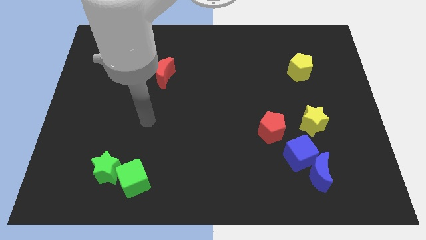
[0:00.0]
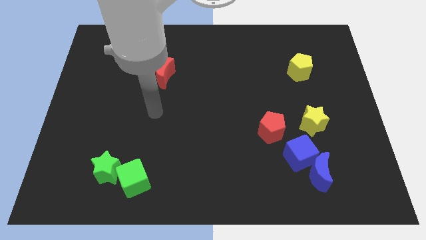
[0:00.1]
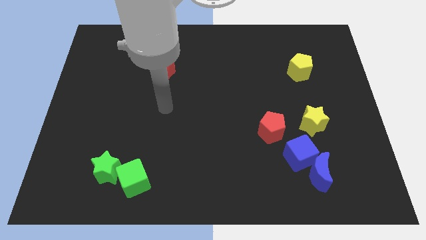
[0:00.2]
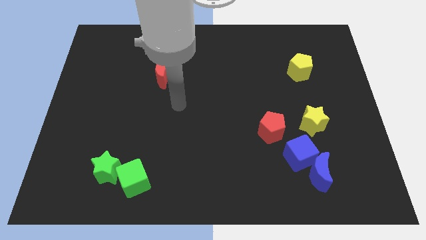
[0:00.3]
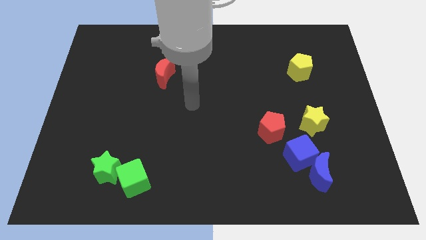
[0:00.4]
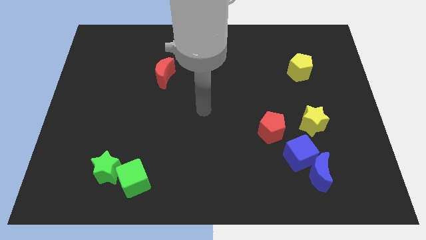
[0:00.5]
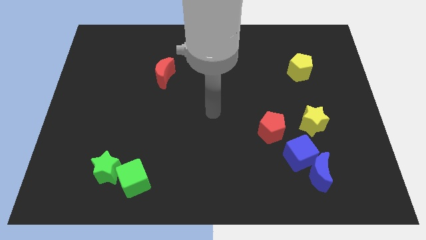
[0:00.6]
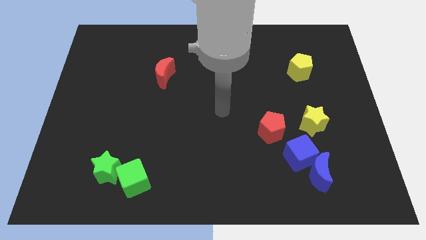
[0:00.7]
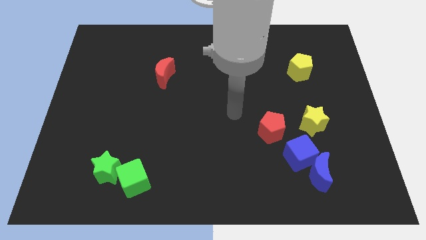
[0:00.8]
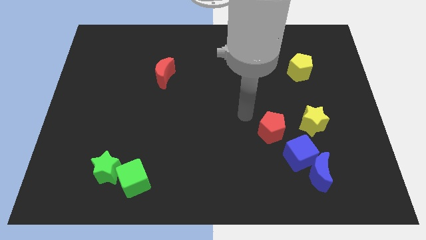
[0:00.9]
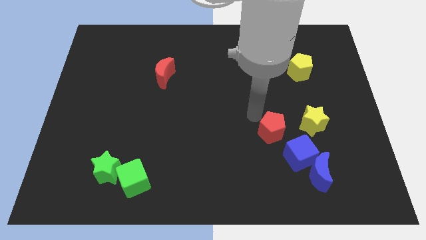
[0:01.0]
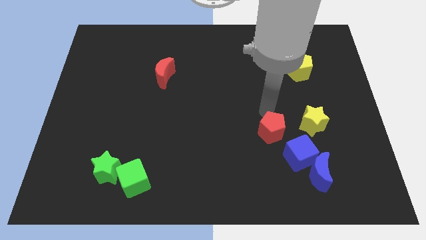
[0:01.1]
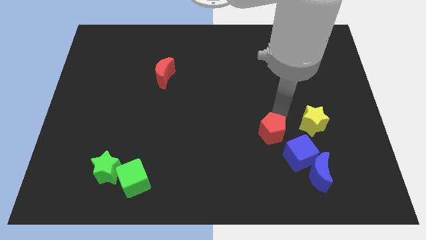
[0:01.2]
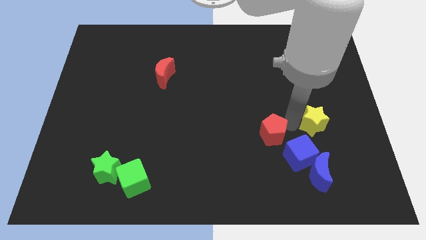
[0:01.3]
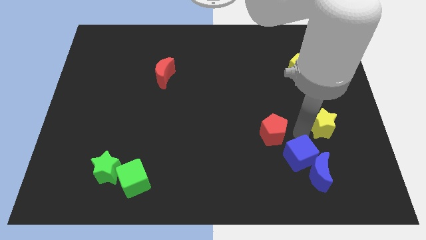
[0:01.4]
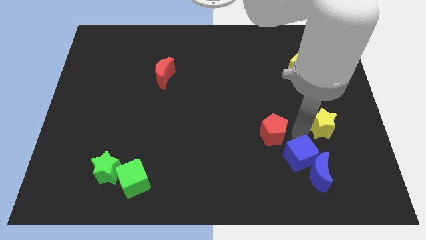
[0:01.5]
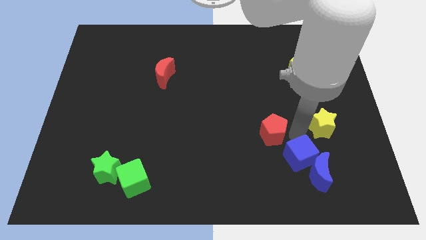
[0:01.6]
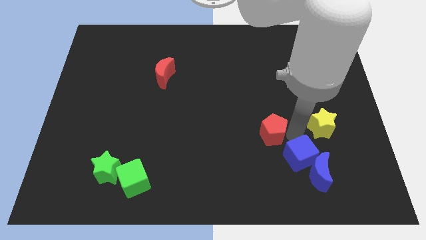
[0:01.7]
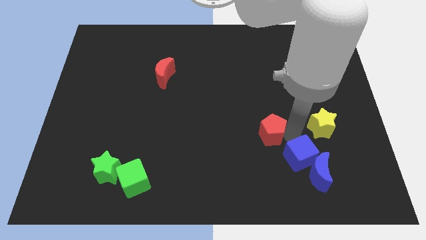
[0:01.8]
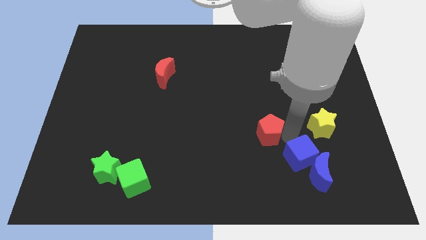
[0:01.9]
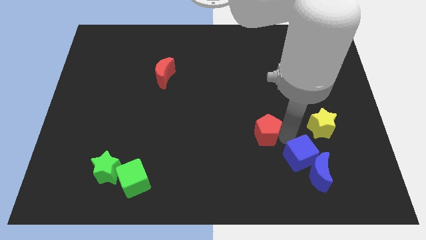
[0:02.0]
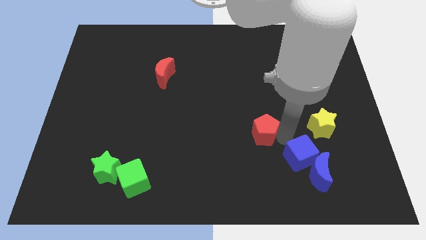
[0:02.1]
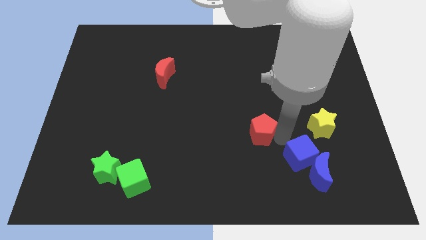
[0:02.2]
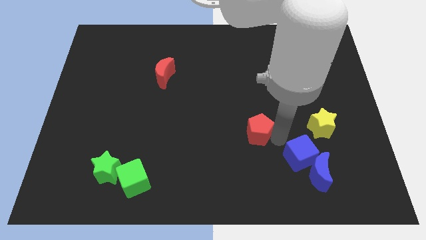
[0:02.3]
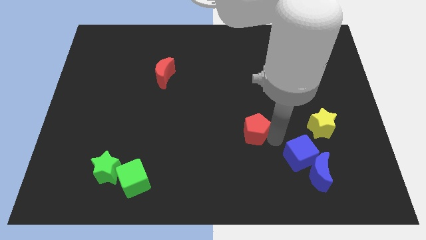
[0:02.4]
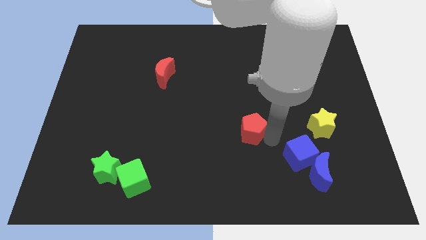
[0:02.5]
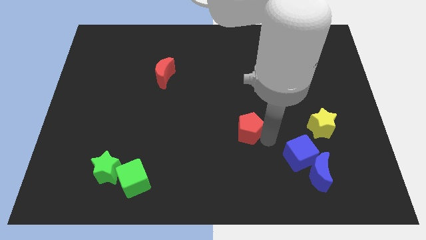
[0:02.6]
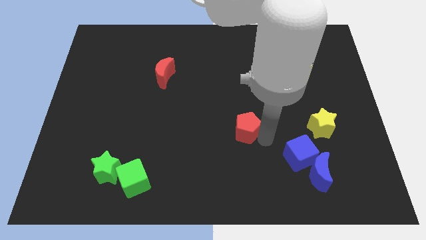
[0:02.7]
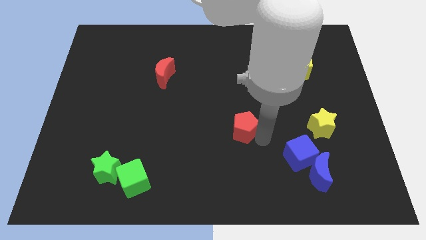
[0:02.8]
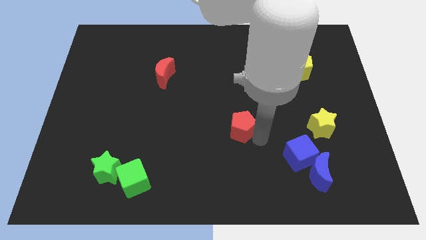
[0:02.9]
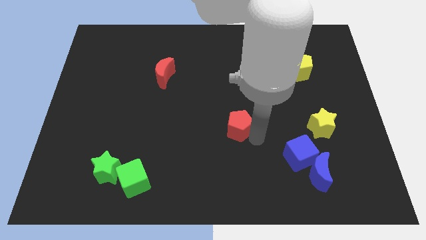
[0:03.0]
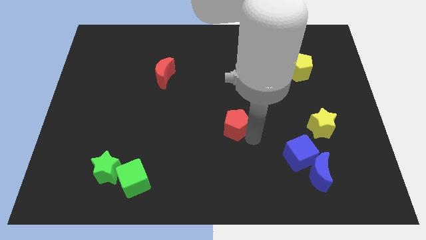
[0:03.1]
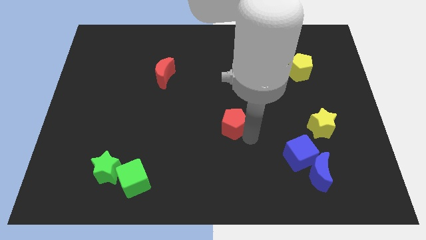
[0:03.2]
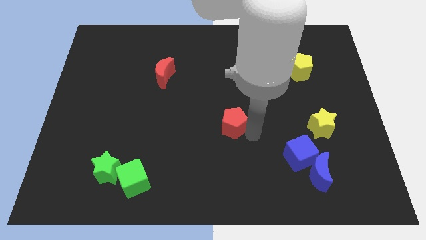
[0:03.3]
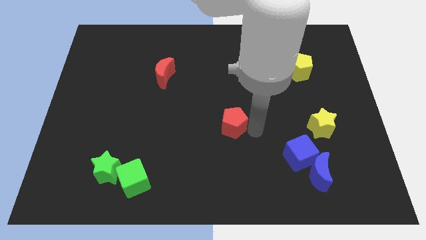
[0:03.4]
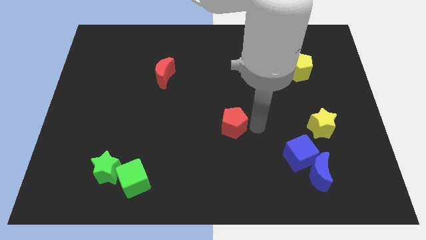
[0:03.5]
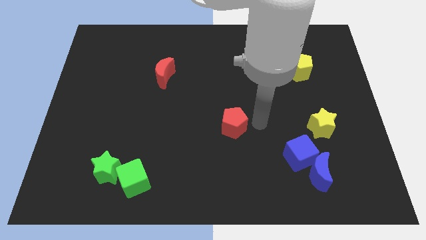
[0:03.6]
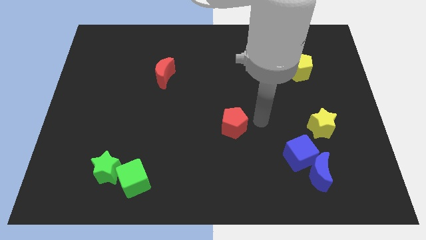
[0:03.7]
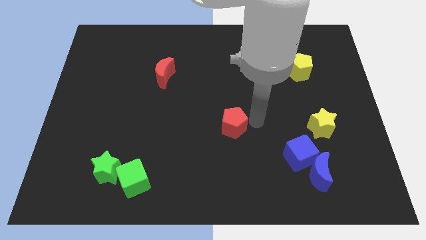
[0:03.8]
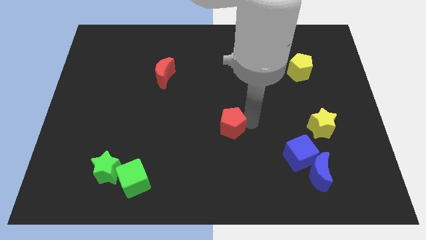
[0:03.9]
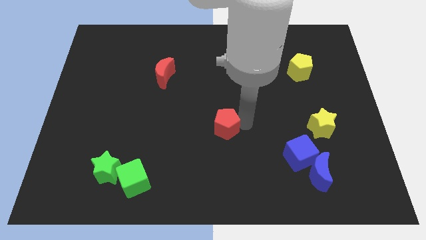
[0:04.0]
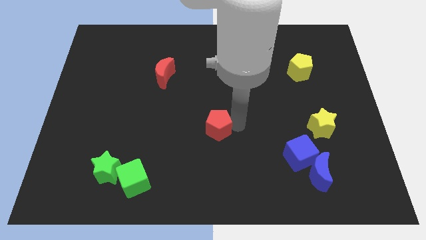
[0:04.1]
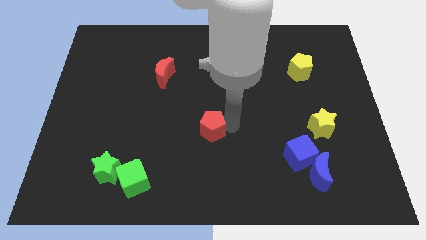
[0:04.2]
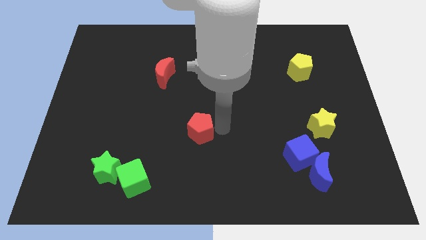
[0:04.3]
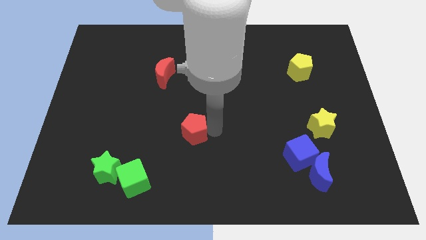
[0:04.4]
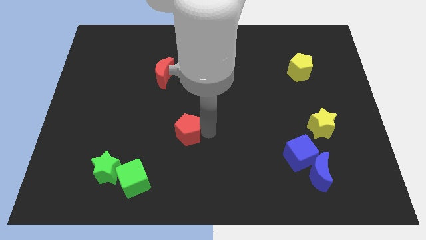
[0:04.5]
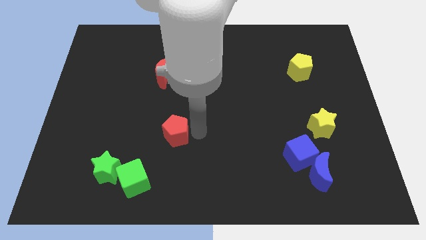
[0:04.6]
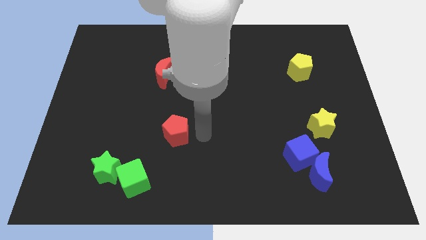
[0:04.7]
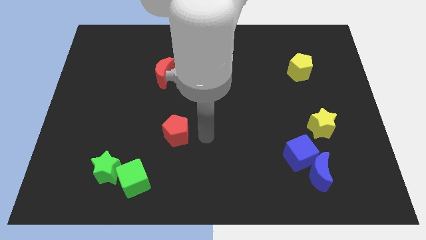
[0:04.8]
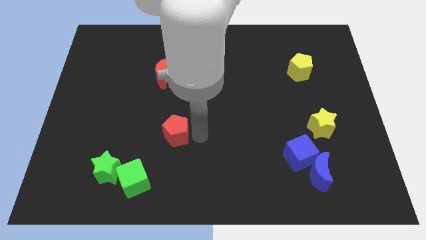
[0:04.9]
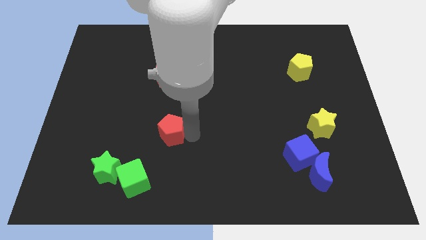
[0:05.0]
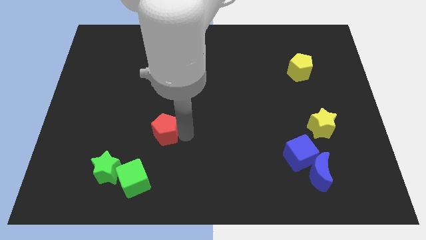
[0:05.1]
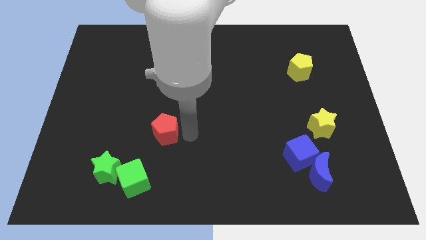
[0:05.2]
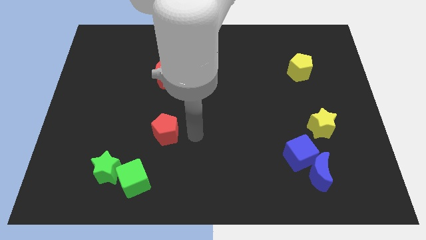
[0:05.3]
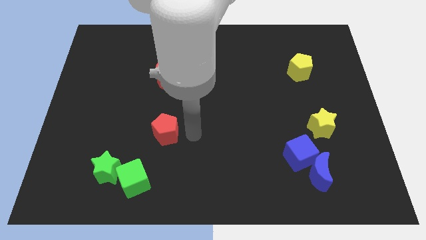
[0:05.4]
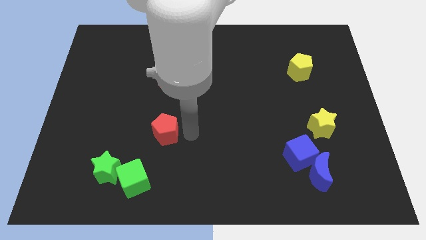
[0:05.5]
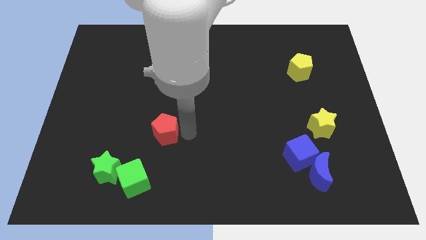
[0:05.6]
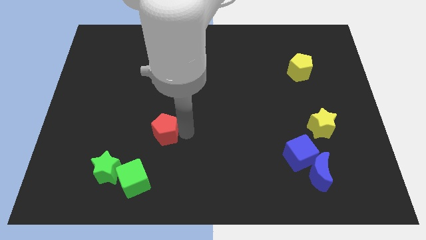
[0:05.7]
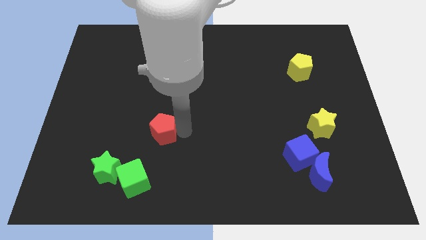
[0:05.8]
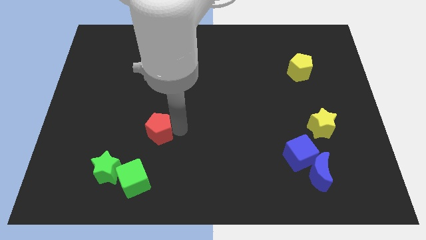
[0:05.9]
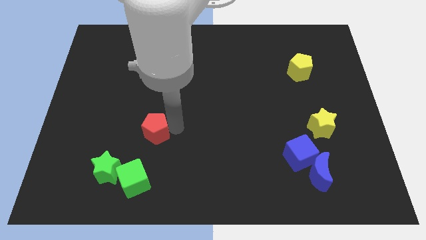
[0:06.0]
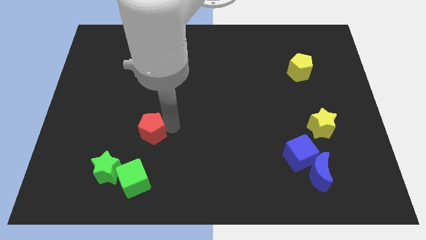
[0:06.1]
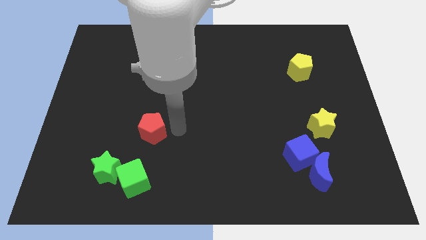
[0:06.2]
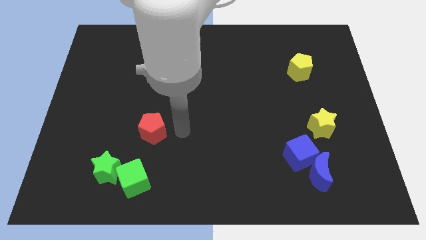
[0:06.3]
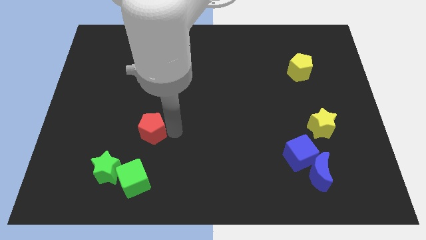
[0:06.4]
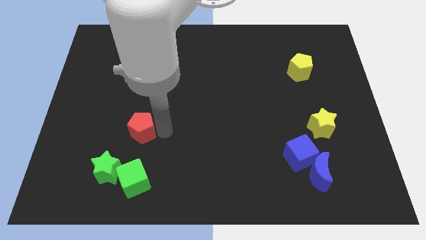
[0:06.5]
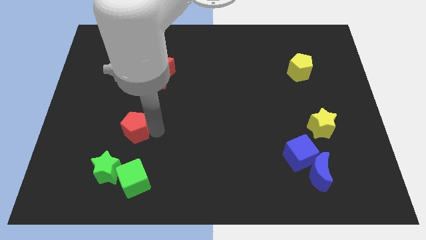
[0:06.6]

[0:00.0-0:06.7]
put the red pentagon to the top side of the green star

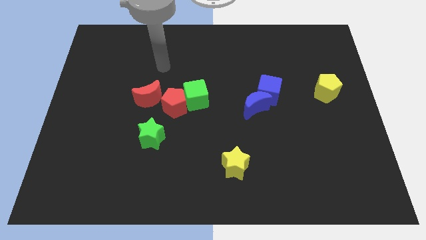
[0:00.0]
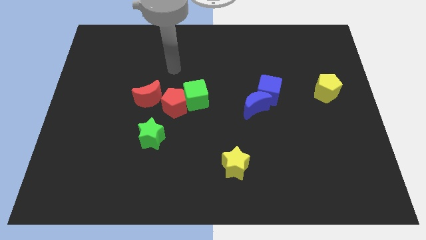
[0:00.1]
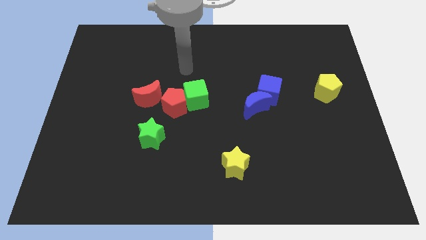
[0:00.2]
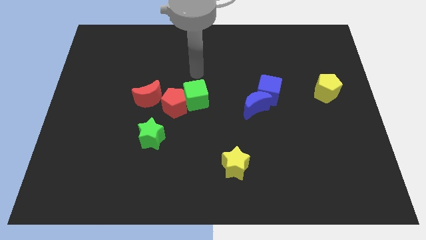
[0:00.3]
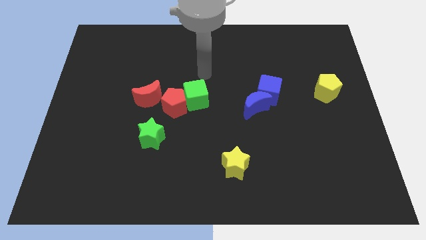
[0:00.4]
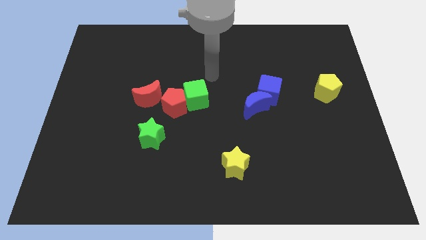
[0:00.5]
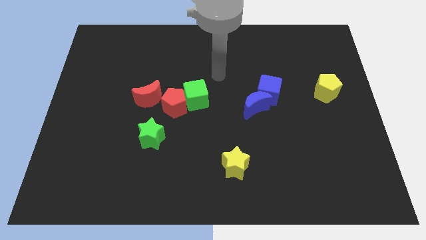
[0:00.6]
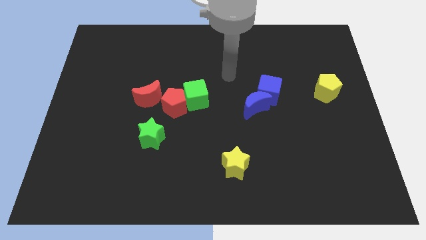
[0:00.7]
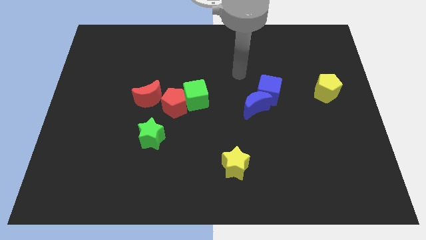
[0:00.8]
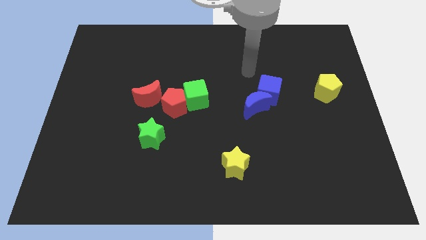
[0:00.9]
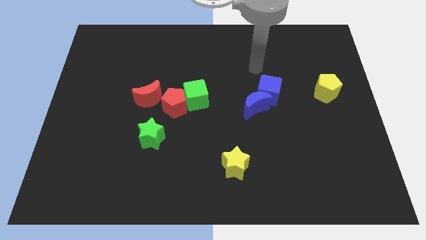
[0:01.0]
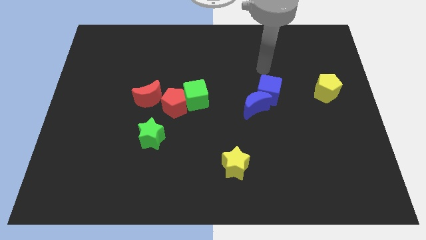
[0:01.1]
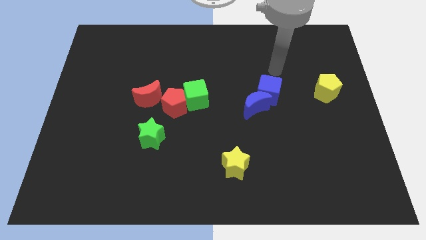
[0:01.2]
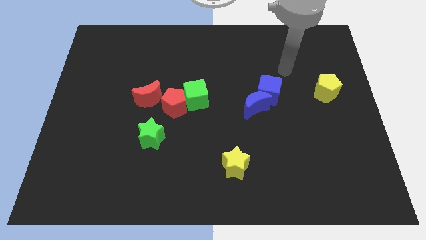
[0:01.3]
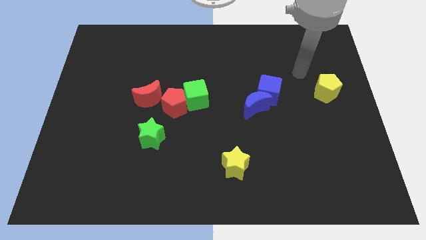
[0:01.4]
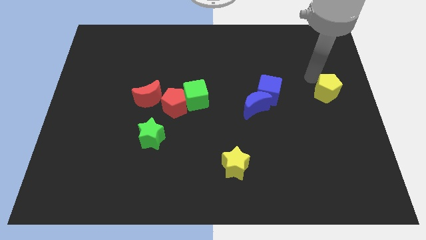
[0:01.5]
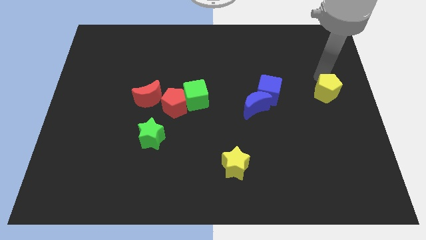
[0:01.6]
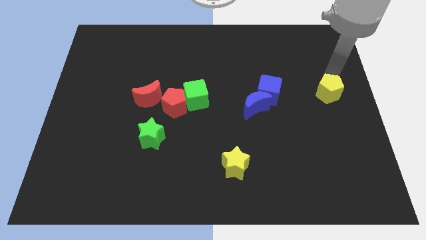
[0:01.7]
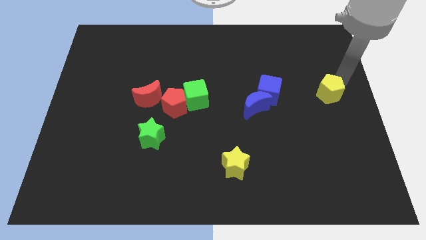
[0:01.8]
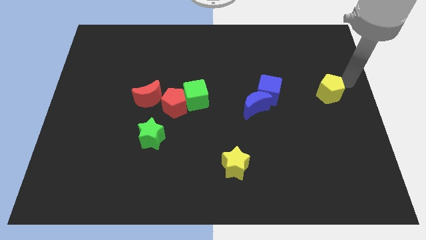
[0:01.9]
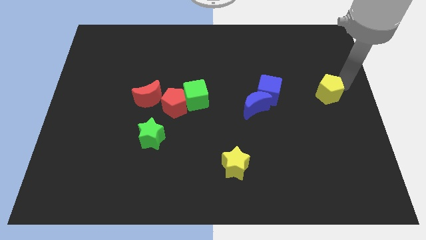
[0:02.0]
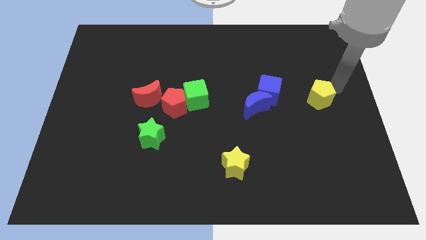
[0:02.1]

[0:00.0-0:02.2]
put the yellow pentagon to the right of the blue moon
